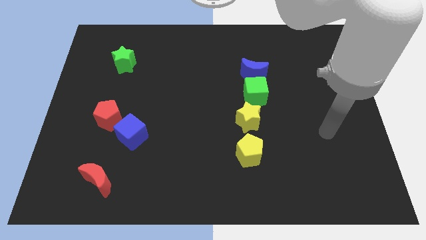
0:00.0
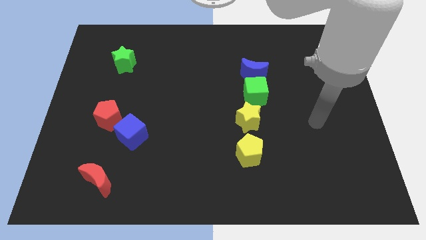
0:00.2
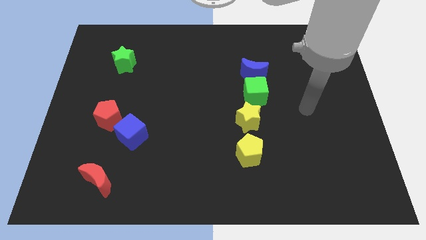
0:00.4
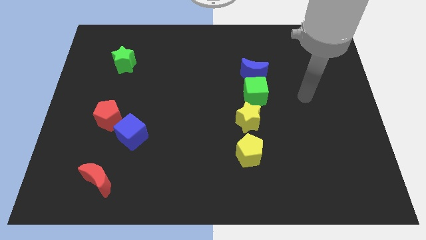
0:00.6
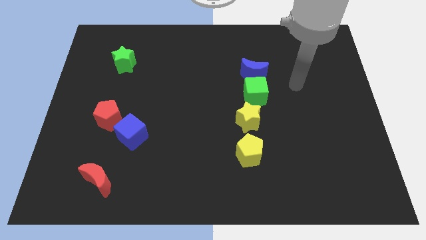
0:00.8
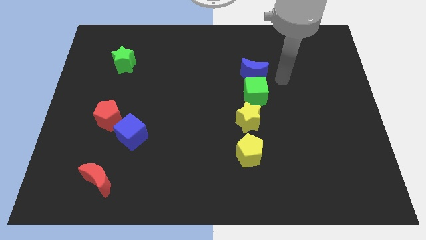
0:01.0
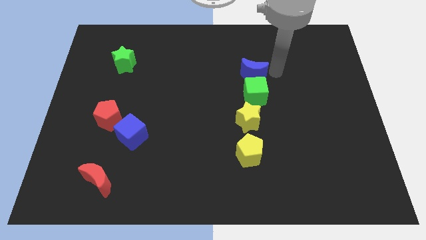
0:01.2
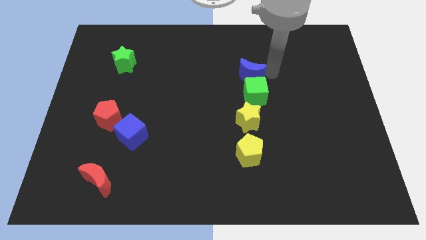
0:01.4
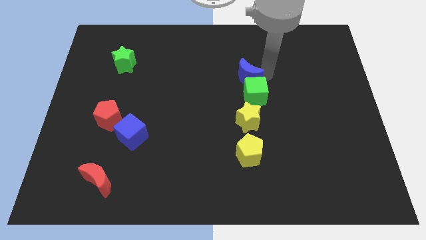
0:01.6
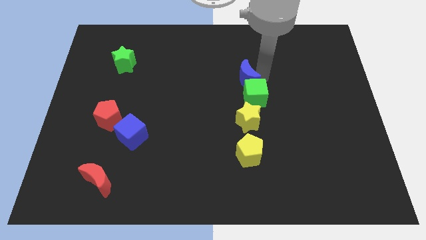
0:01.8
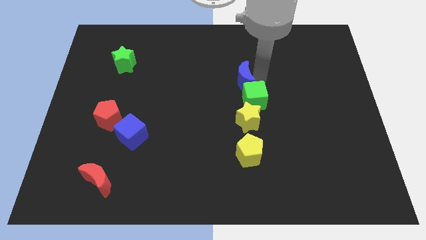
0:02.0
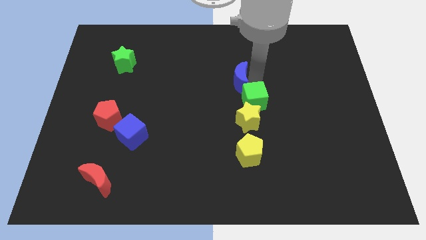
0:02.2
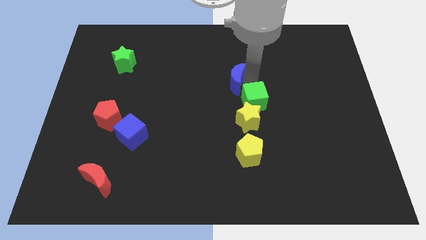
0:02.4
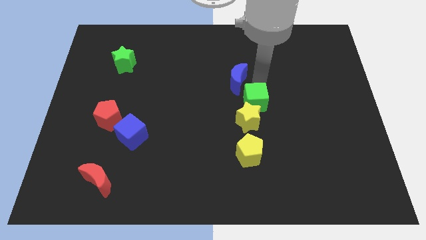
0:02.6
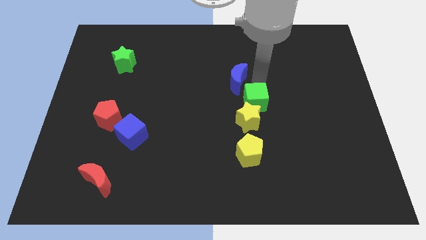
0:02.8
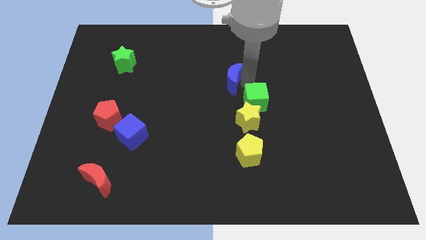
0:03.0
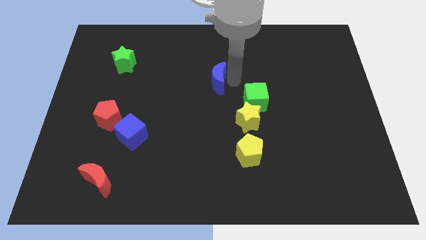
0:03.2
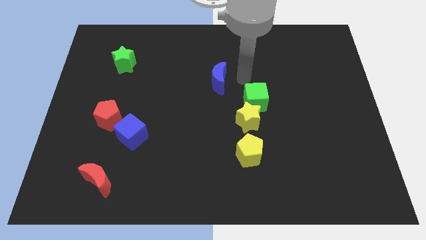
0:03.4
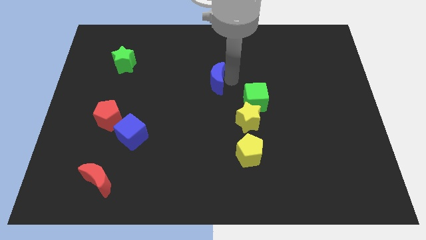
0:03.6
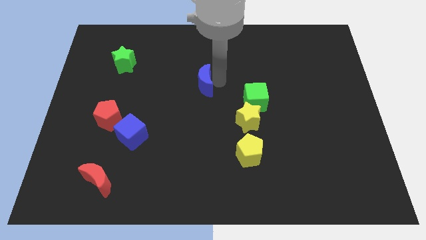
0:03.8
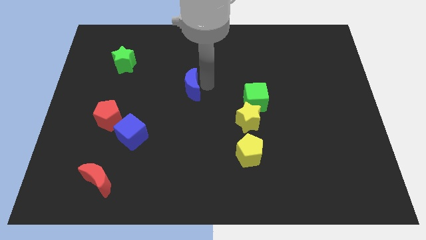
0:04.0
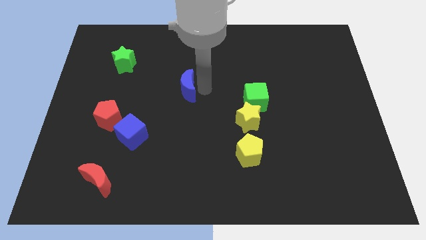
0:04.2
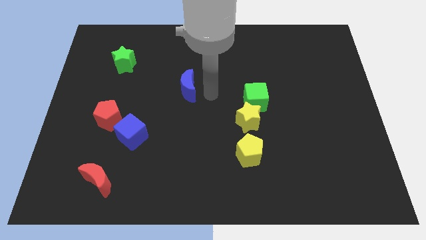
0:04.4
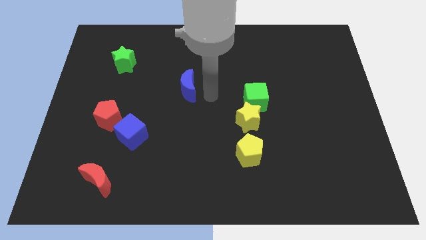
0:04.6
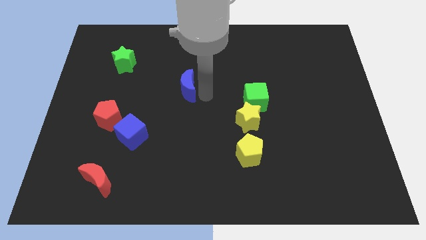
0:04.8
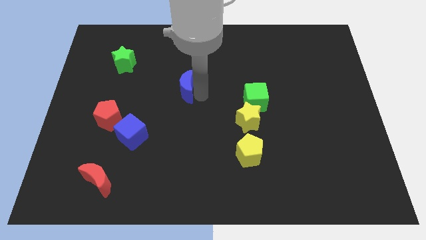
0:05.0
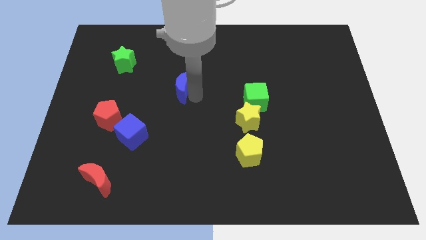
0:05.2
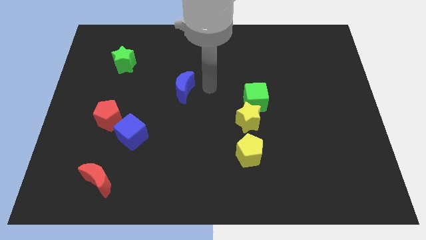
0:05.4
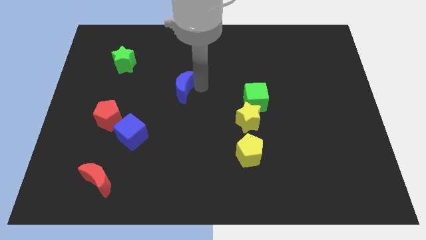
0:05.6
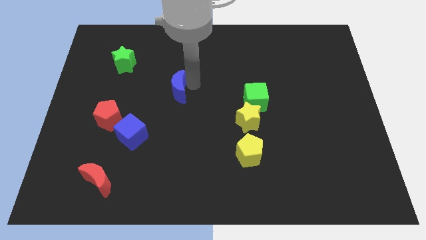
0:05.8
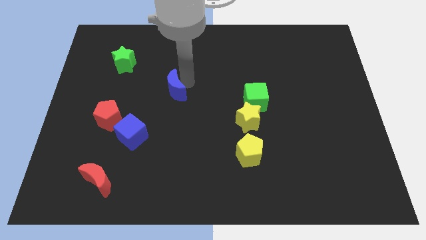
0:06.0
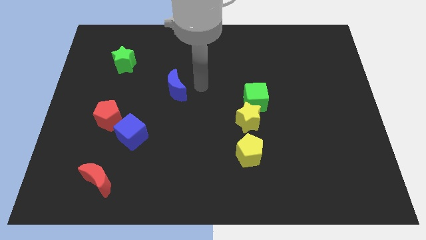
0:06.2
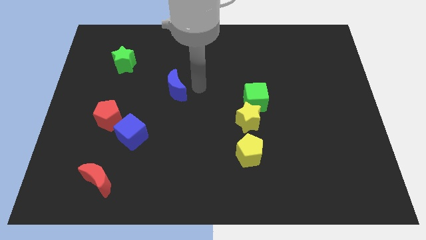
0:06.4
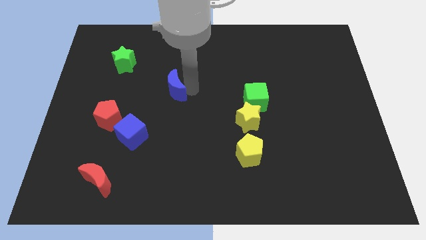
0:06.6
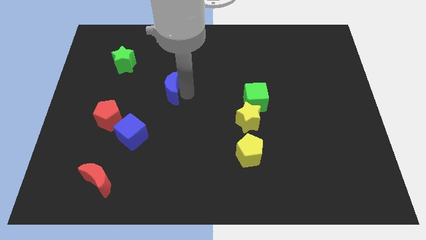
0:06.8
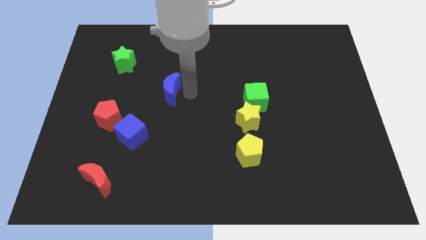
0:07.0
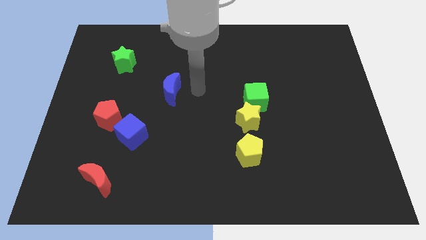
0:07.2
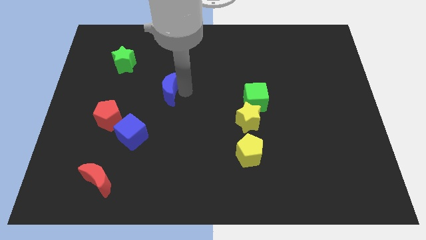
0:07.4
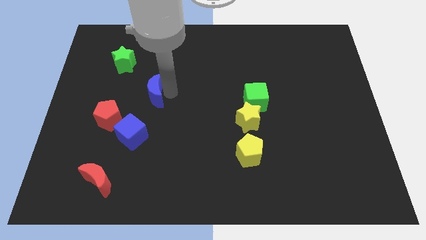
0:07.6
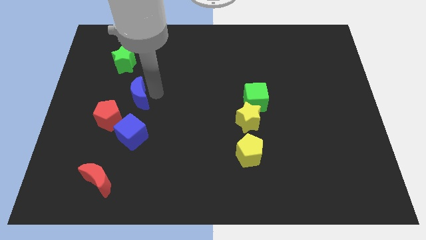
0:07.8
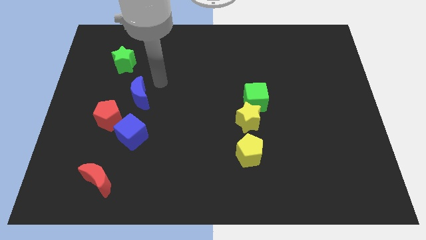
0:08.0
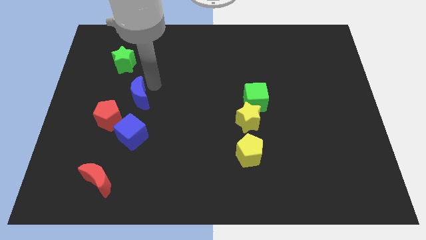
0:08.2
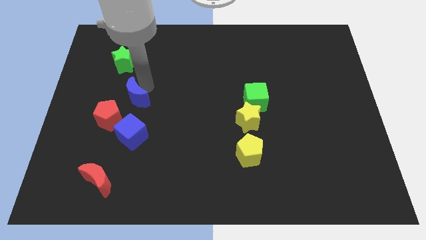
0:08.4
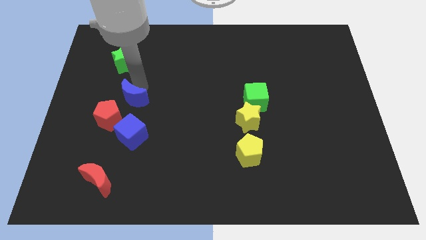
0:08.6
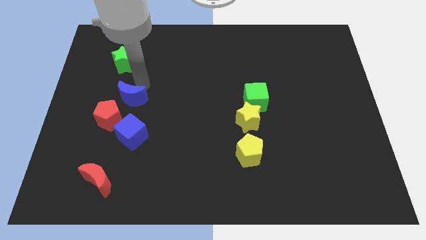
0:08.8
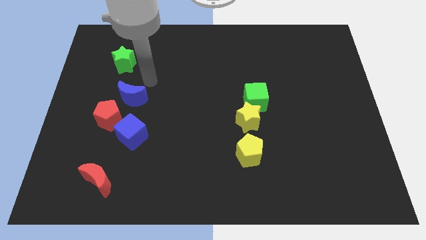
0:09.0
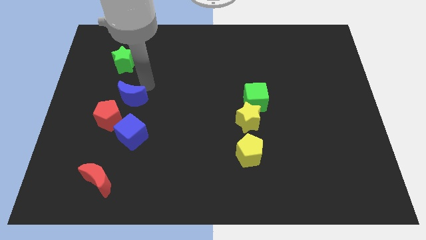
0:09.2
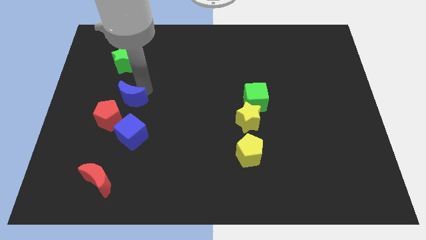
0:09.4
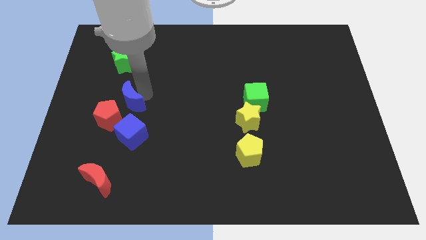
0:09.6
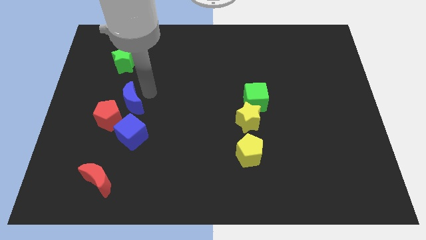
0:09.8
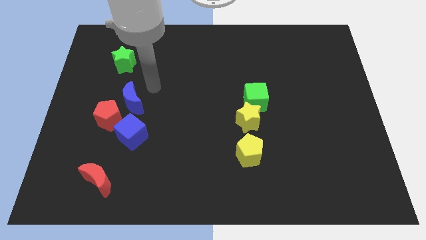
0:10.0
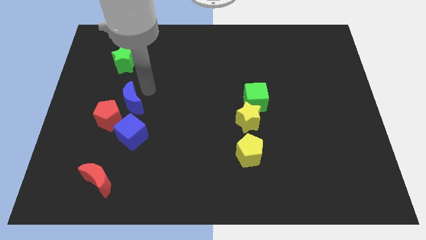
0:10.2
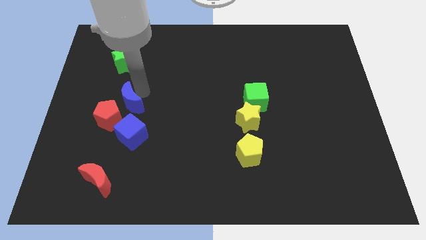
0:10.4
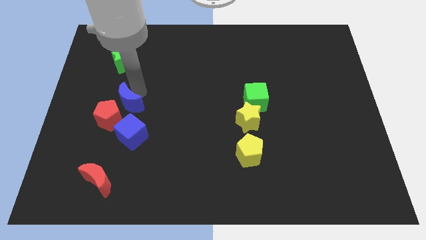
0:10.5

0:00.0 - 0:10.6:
put the blue moon next to the red pentagon

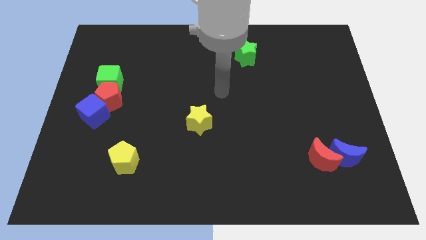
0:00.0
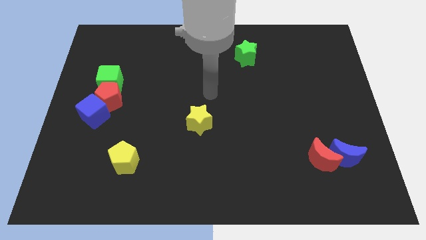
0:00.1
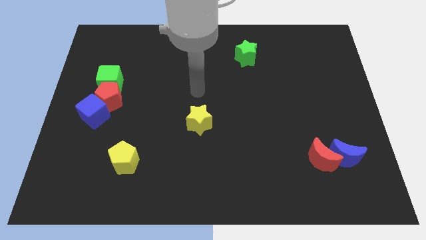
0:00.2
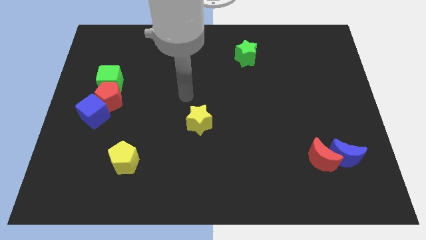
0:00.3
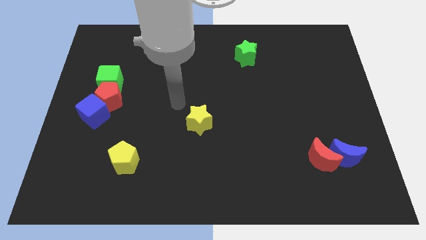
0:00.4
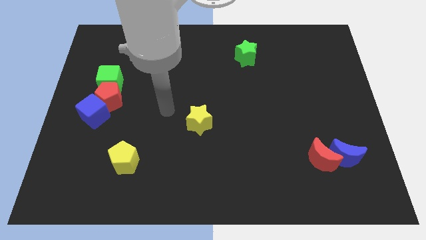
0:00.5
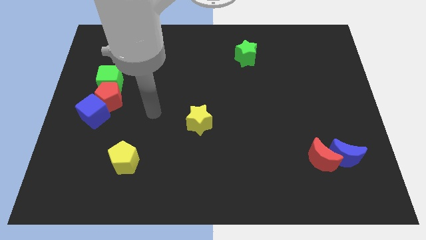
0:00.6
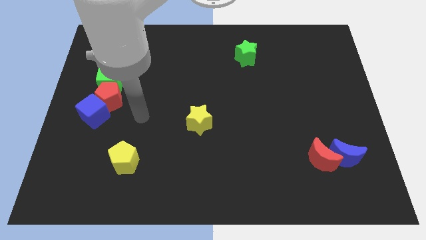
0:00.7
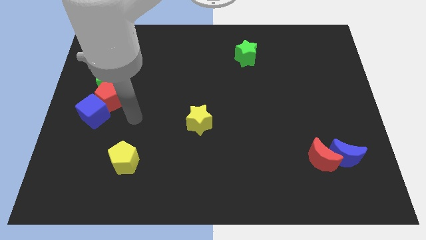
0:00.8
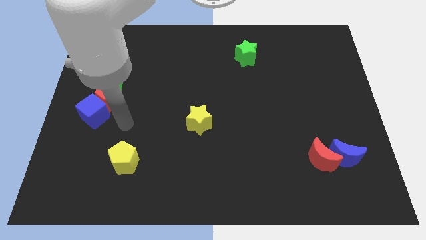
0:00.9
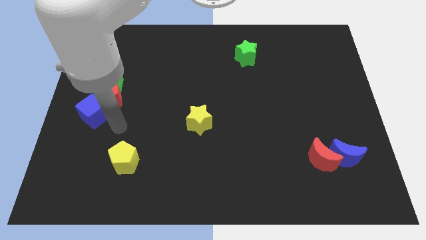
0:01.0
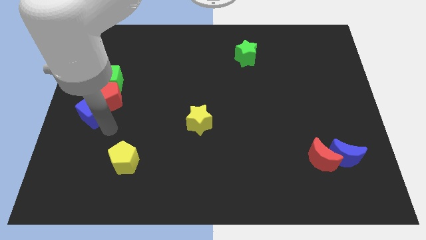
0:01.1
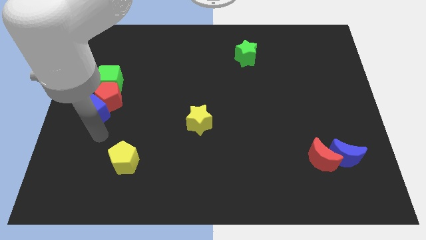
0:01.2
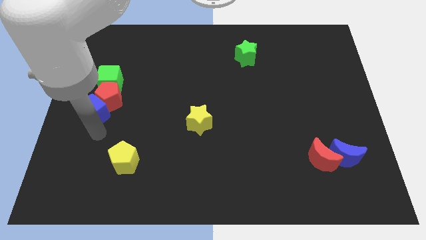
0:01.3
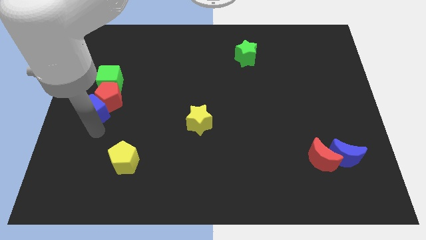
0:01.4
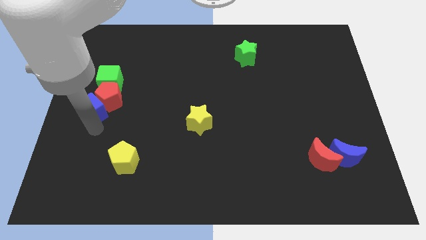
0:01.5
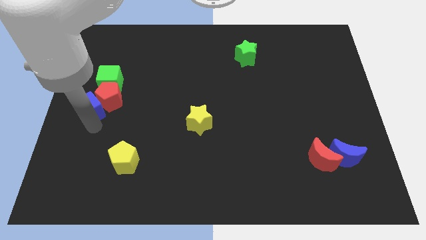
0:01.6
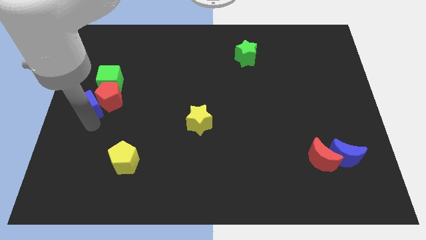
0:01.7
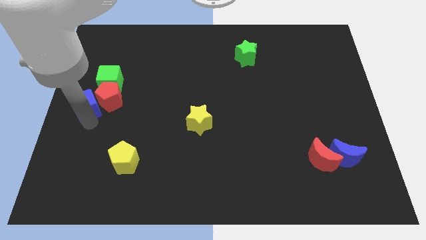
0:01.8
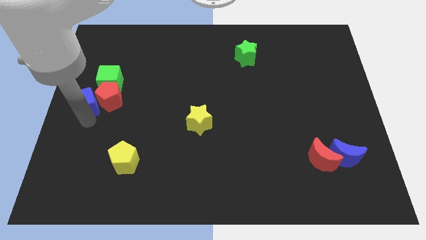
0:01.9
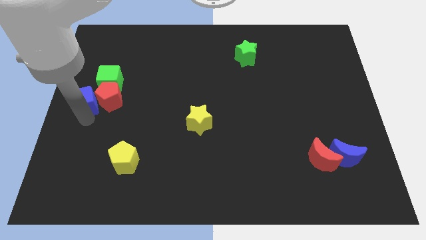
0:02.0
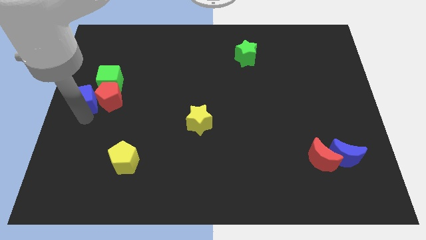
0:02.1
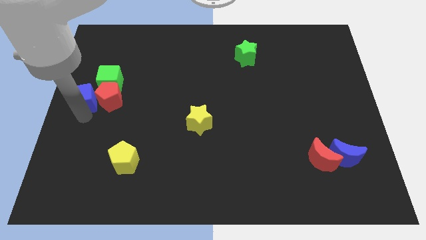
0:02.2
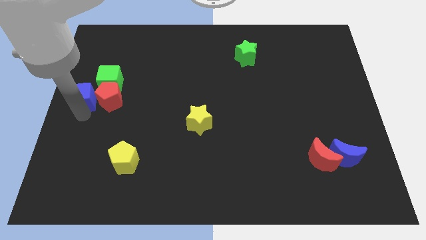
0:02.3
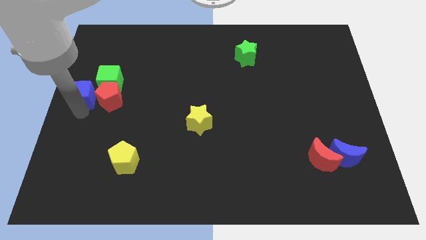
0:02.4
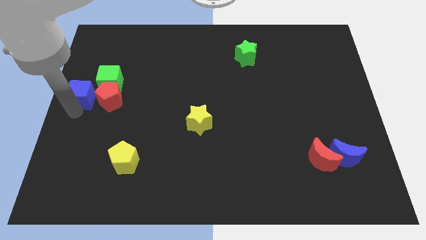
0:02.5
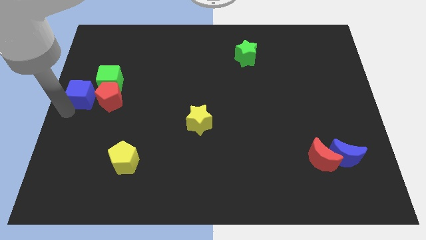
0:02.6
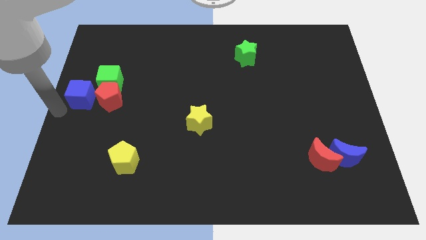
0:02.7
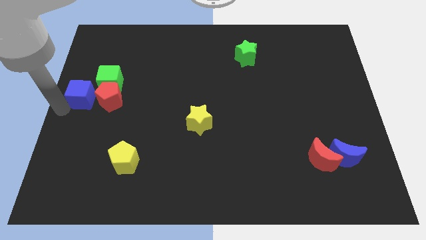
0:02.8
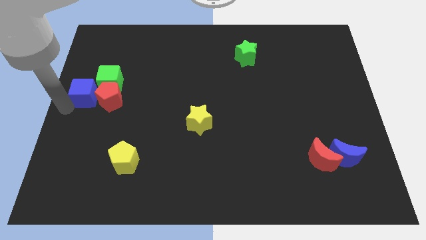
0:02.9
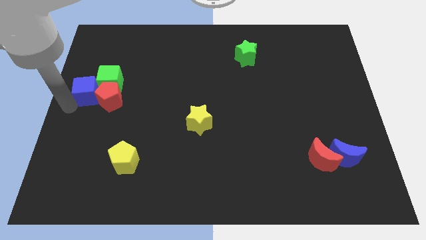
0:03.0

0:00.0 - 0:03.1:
move the blue cube to the green cube
